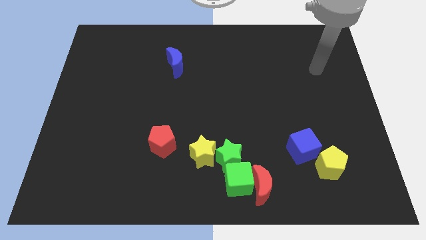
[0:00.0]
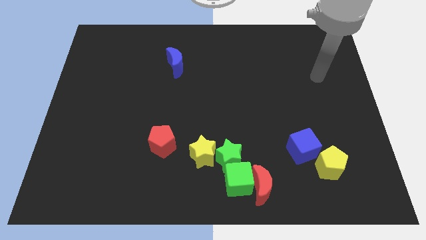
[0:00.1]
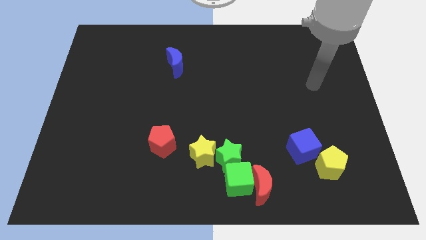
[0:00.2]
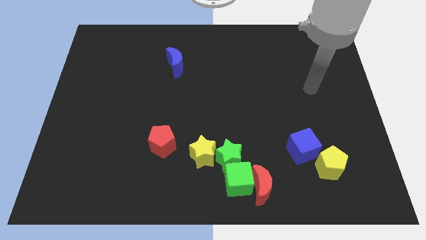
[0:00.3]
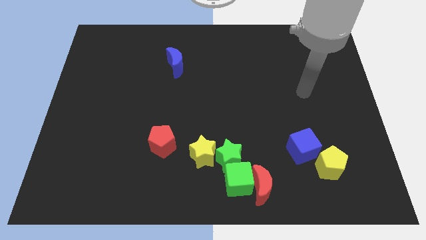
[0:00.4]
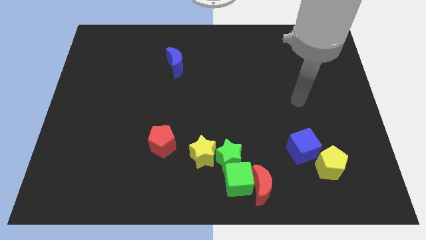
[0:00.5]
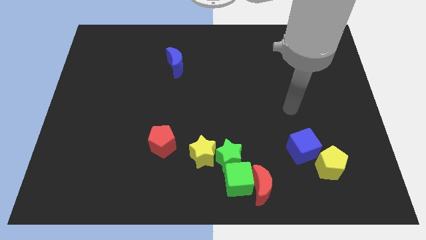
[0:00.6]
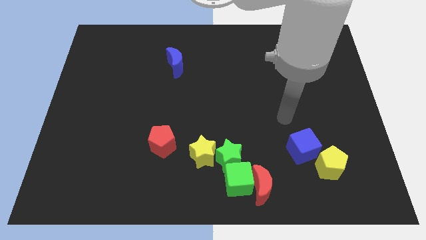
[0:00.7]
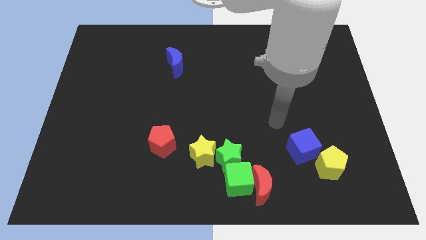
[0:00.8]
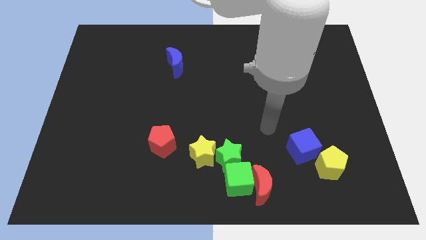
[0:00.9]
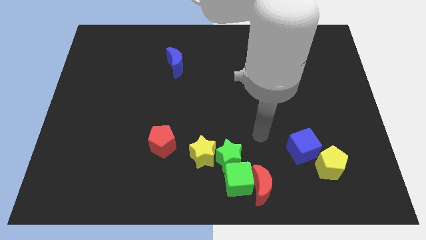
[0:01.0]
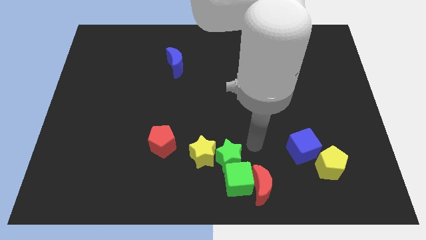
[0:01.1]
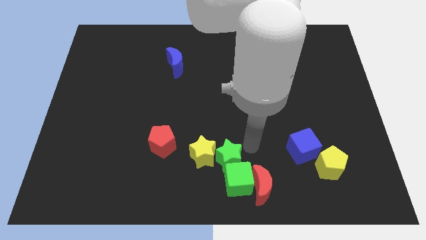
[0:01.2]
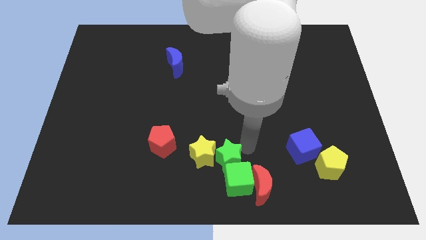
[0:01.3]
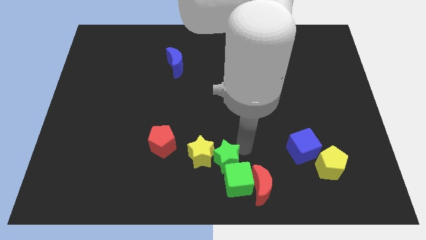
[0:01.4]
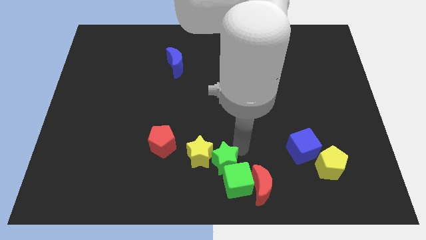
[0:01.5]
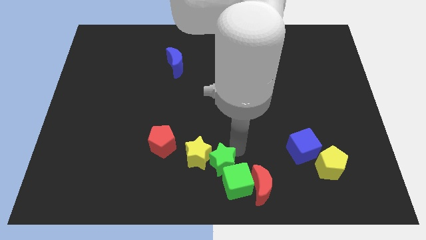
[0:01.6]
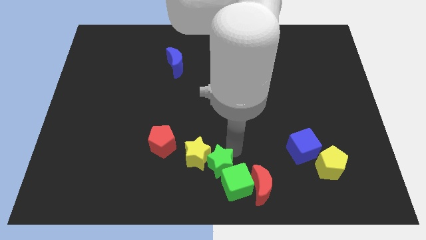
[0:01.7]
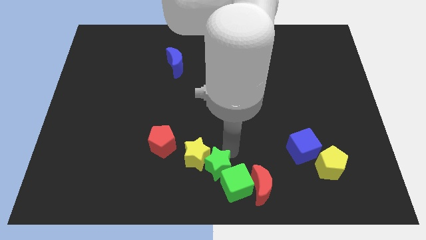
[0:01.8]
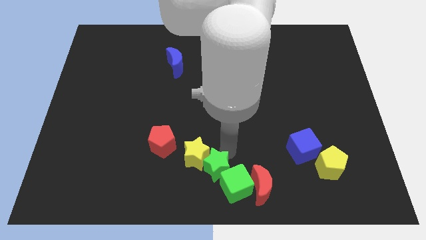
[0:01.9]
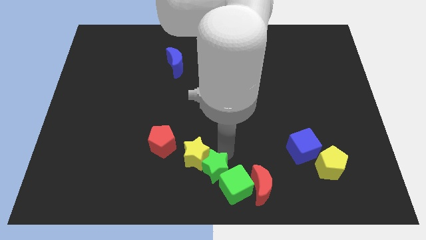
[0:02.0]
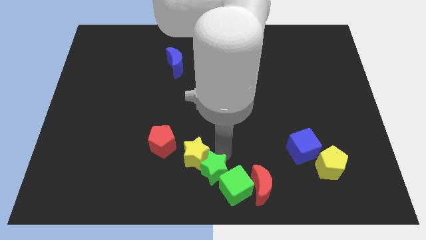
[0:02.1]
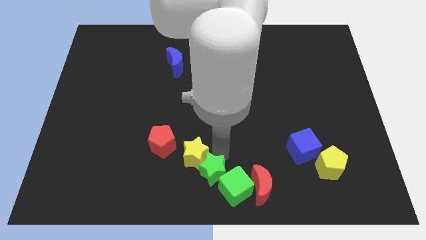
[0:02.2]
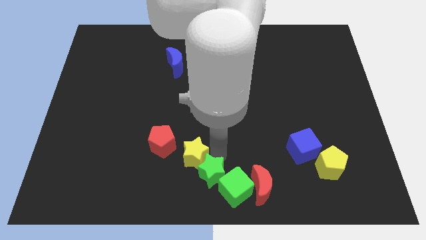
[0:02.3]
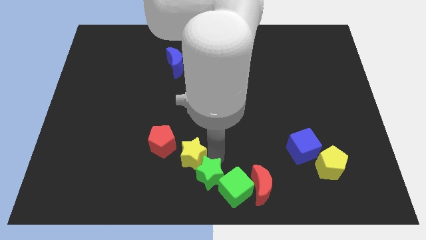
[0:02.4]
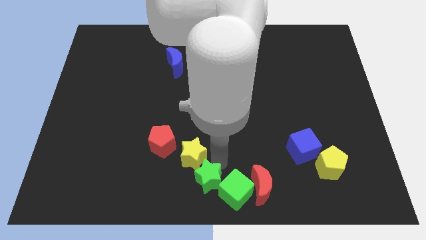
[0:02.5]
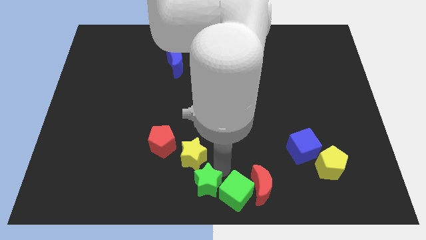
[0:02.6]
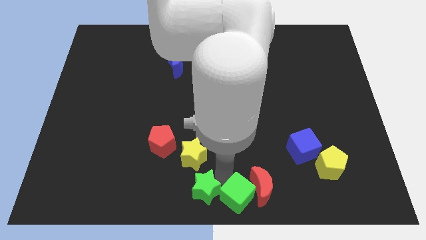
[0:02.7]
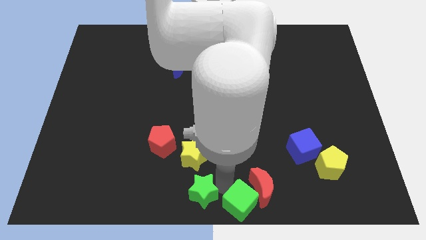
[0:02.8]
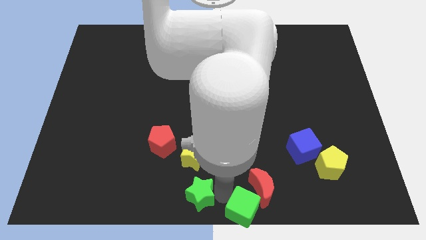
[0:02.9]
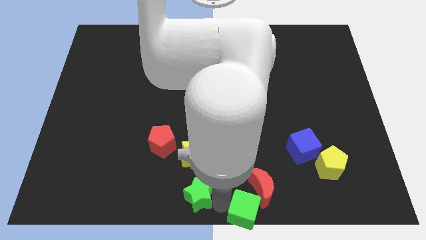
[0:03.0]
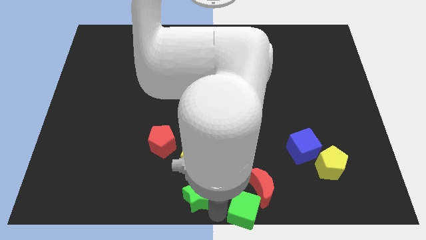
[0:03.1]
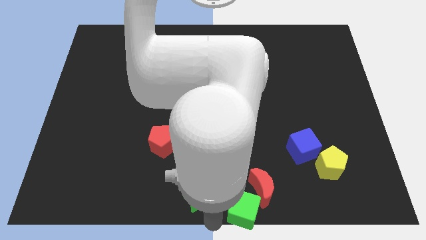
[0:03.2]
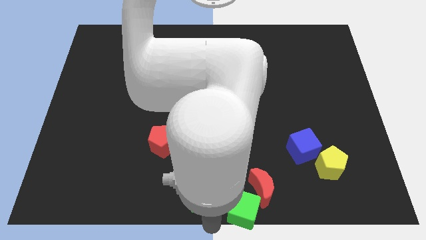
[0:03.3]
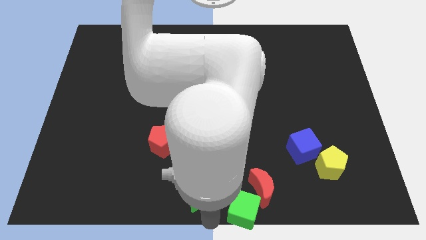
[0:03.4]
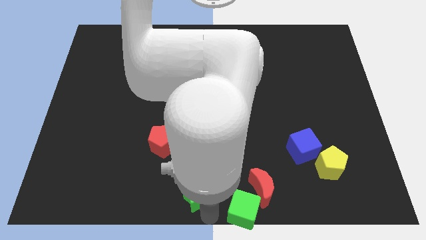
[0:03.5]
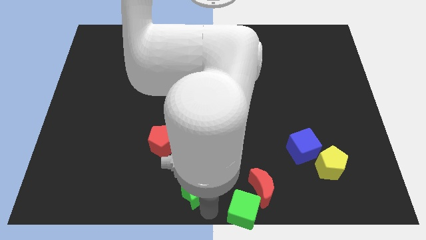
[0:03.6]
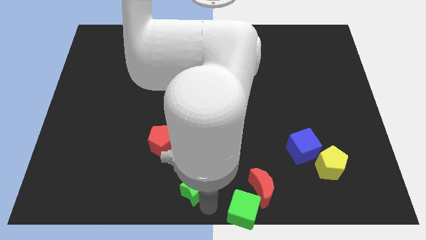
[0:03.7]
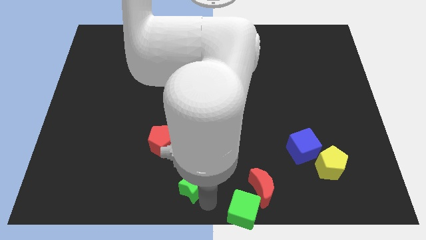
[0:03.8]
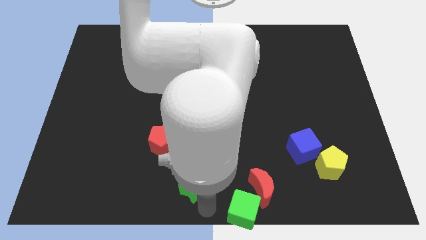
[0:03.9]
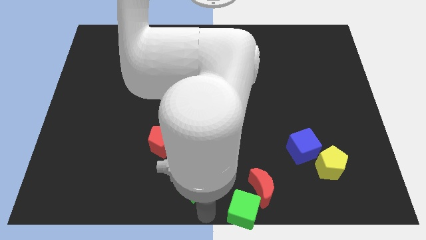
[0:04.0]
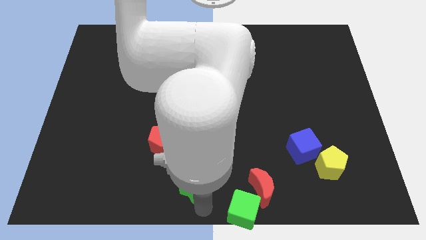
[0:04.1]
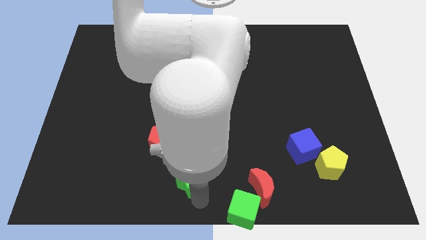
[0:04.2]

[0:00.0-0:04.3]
slightly slide the green star to the left

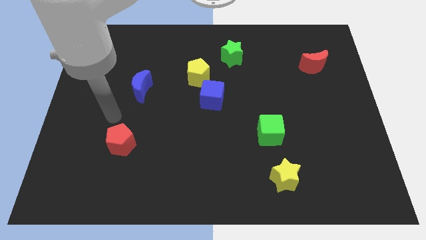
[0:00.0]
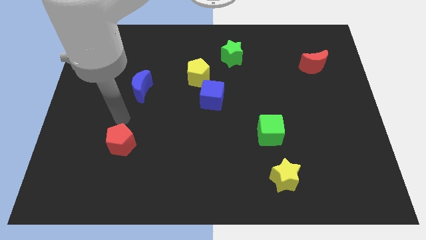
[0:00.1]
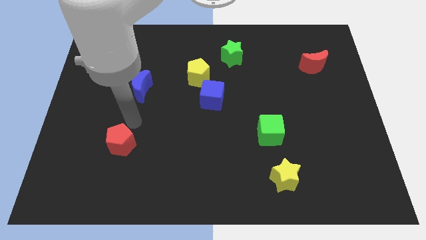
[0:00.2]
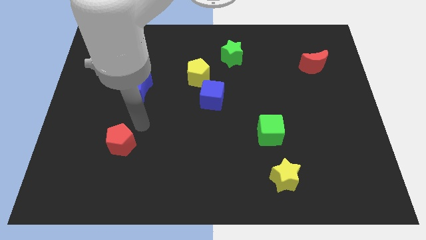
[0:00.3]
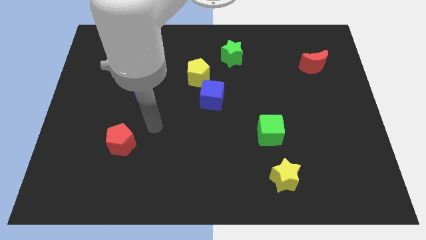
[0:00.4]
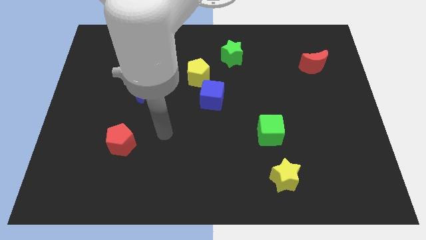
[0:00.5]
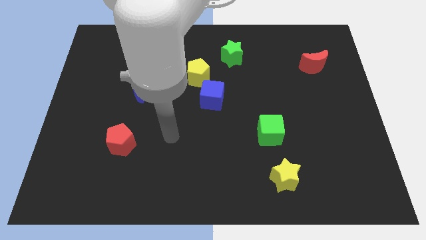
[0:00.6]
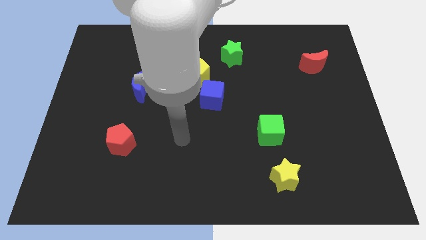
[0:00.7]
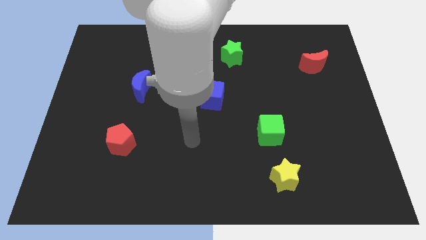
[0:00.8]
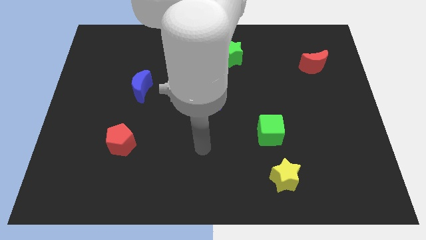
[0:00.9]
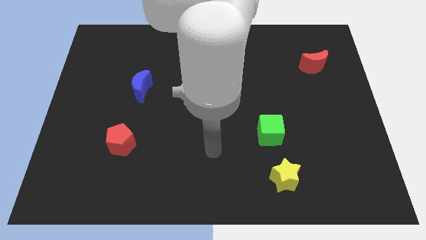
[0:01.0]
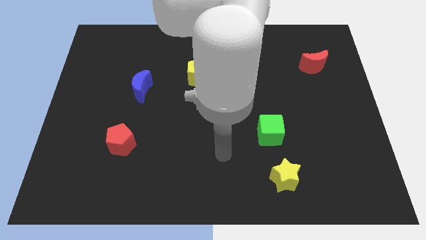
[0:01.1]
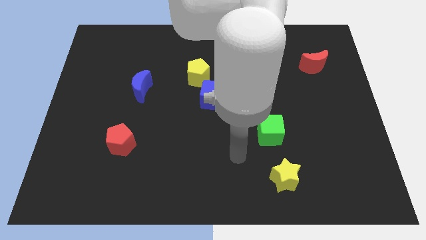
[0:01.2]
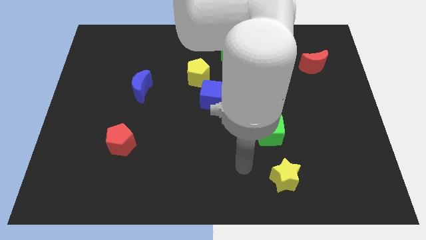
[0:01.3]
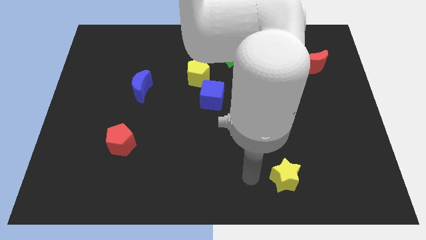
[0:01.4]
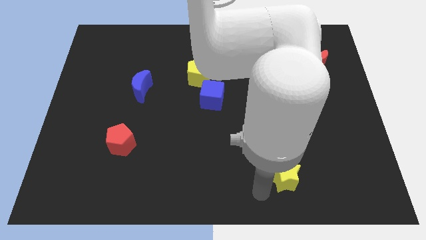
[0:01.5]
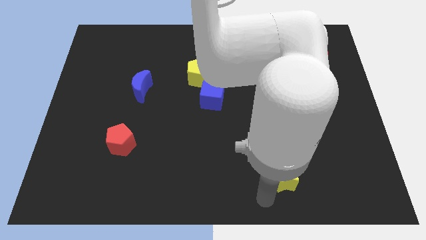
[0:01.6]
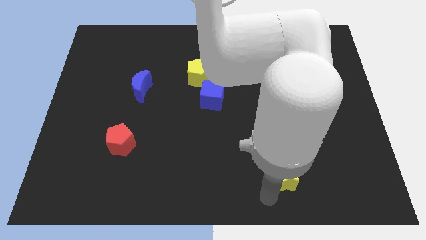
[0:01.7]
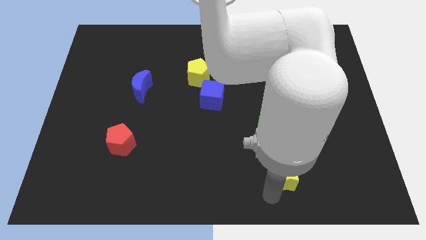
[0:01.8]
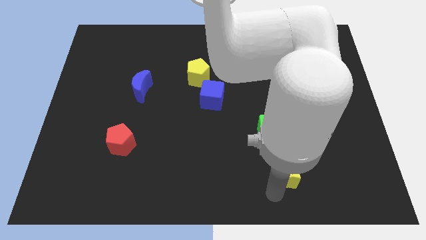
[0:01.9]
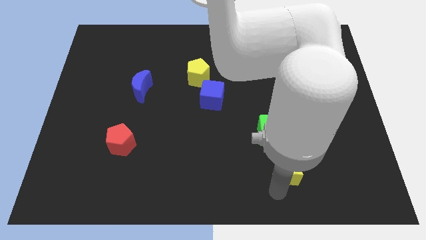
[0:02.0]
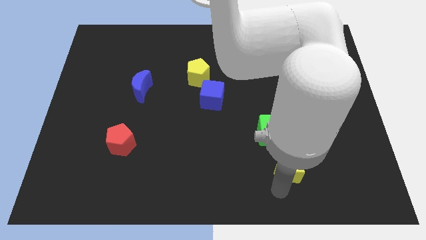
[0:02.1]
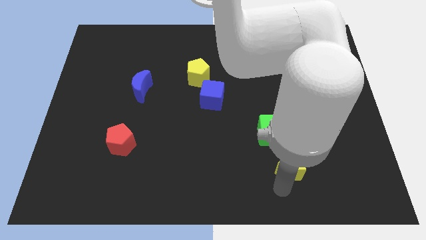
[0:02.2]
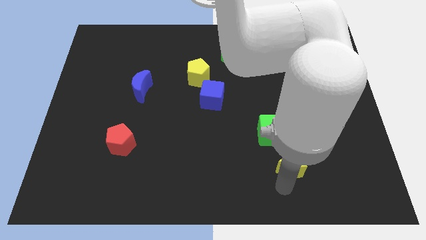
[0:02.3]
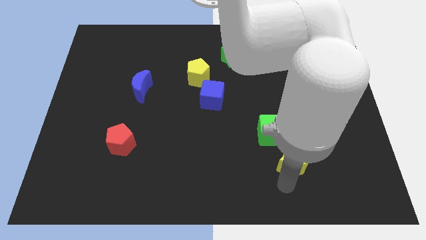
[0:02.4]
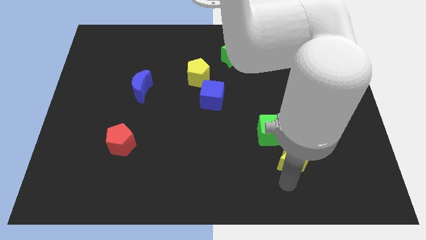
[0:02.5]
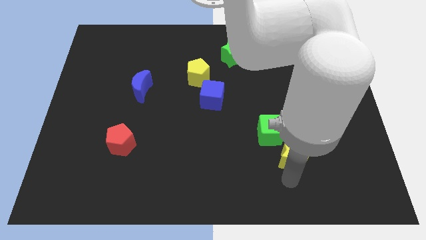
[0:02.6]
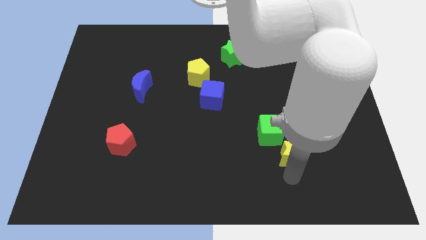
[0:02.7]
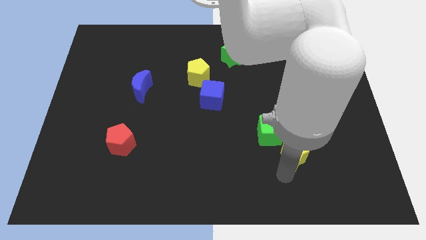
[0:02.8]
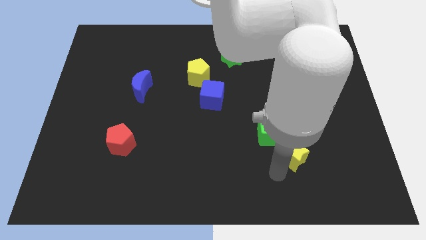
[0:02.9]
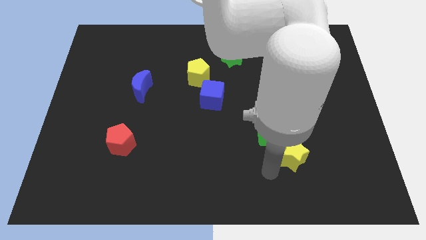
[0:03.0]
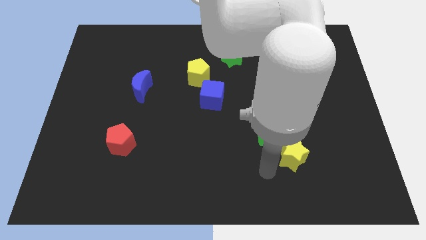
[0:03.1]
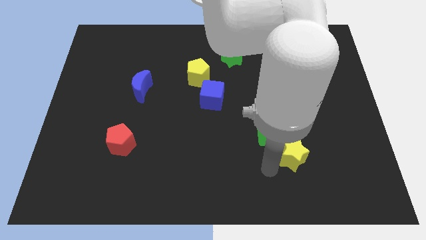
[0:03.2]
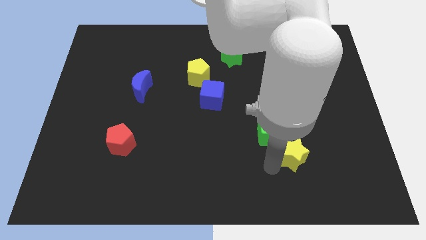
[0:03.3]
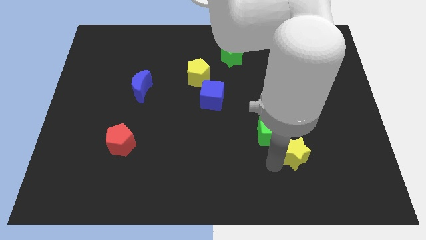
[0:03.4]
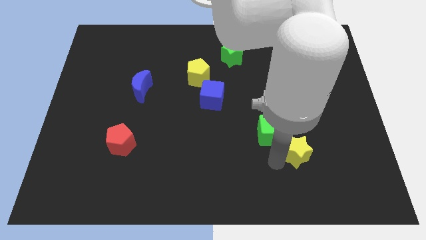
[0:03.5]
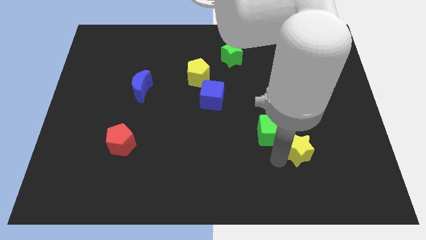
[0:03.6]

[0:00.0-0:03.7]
move the yellow star somewhat diagonally up and to the right
